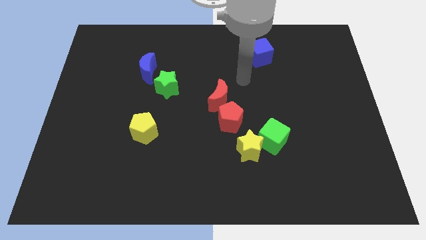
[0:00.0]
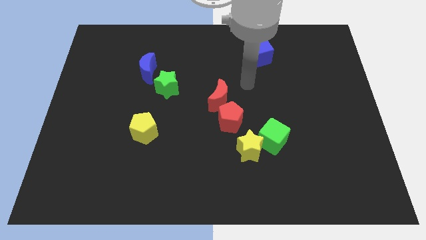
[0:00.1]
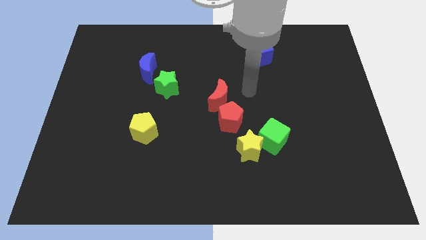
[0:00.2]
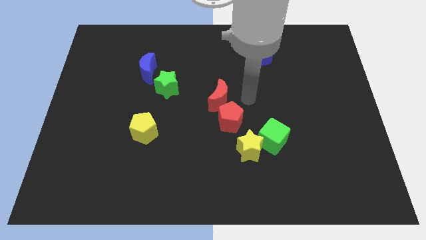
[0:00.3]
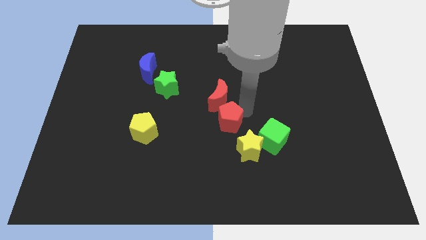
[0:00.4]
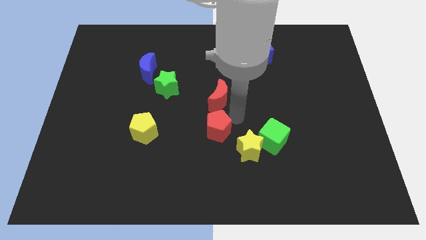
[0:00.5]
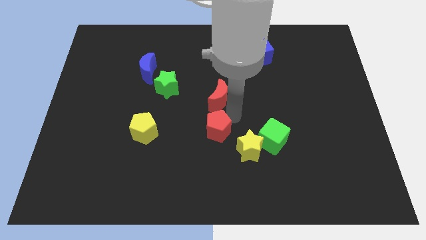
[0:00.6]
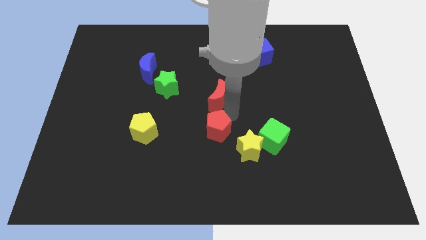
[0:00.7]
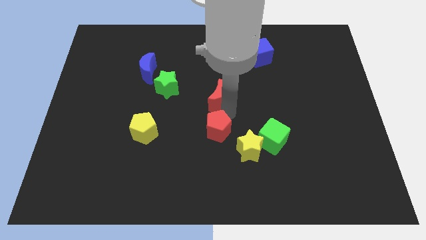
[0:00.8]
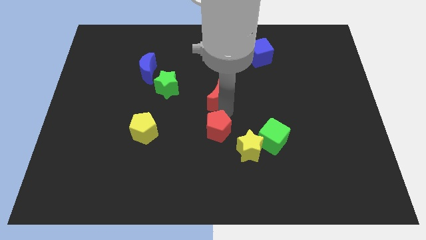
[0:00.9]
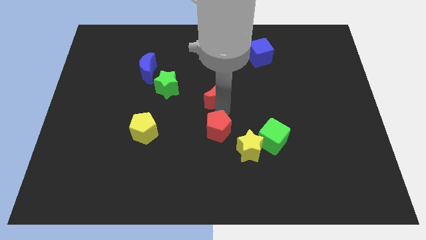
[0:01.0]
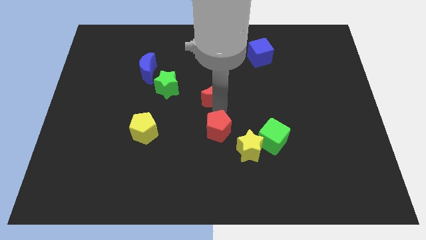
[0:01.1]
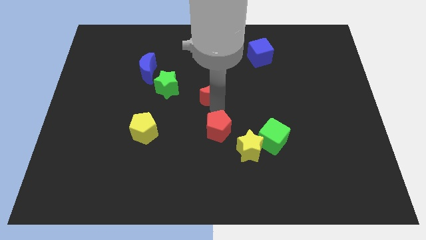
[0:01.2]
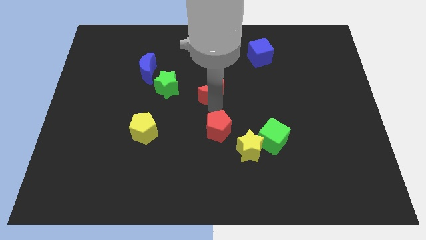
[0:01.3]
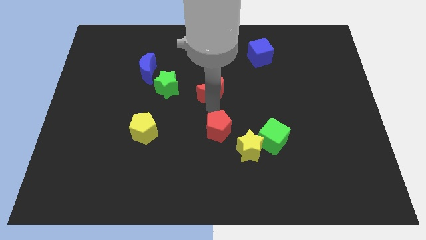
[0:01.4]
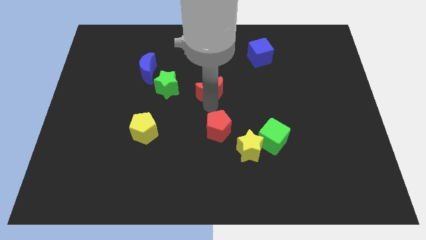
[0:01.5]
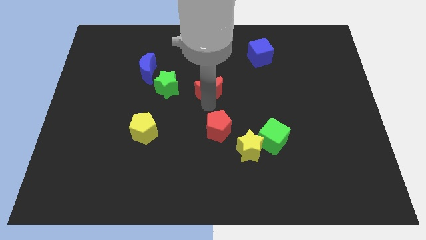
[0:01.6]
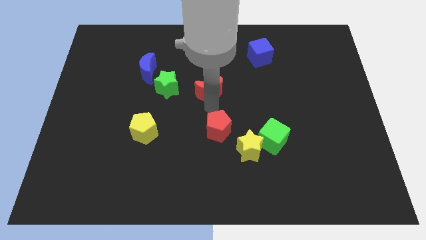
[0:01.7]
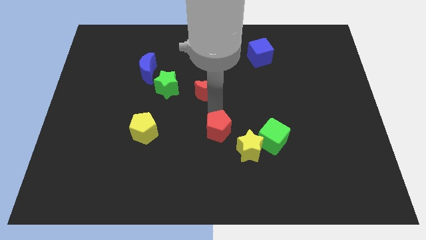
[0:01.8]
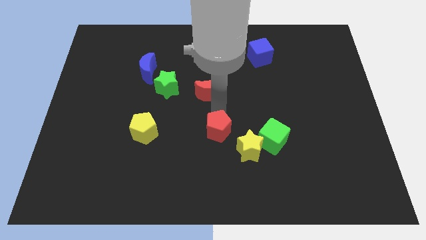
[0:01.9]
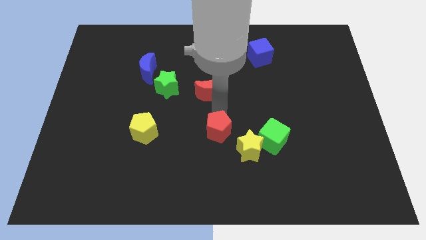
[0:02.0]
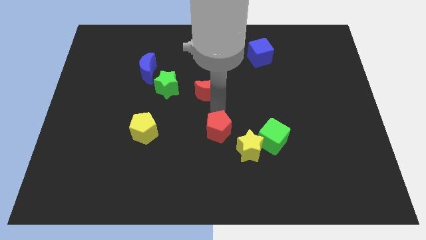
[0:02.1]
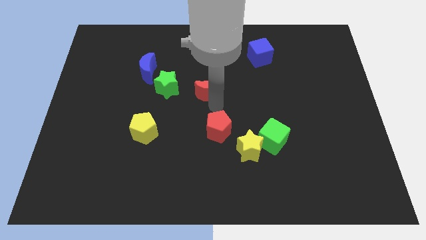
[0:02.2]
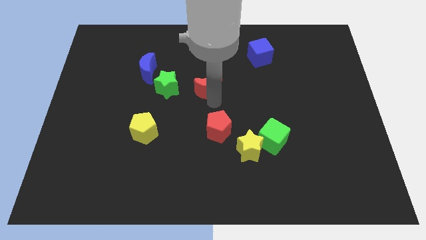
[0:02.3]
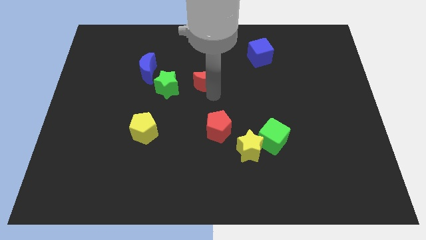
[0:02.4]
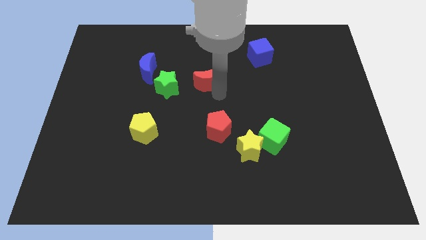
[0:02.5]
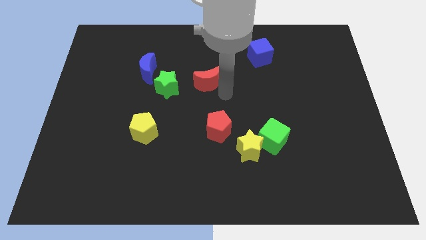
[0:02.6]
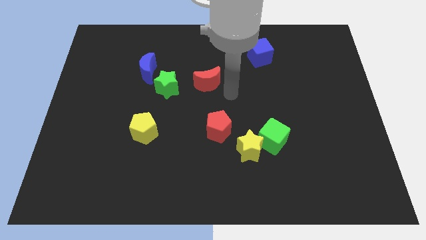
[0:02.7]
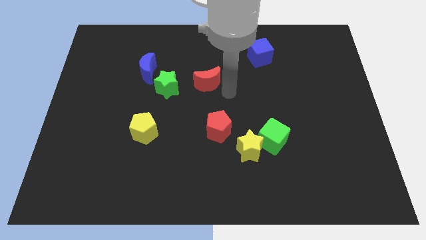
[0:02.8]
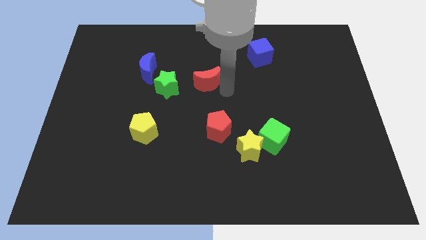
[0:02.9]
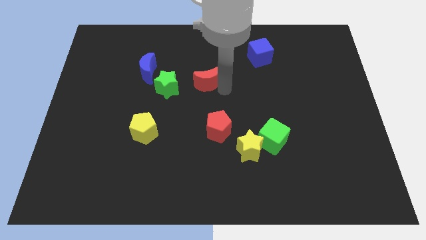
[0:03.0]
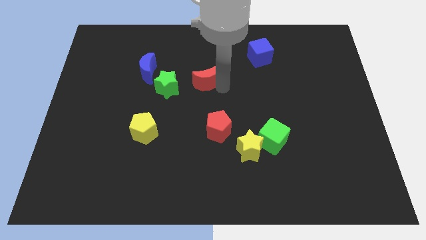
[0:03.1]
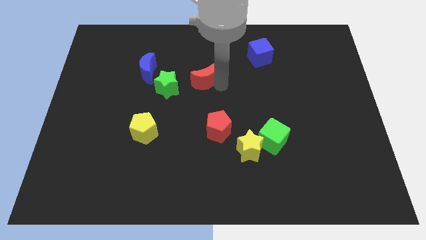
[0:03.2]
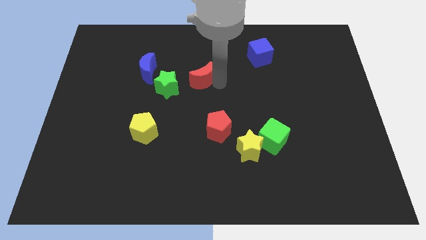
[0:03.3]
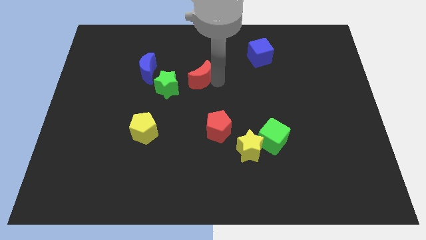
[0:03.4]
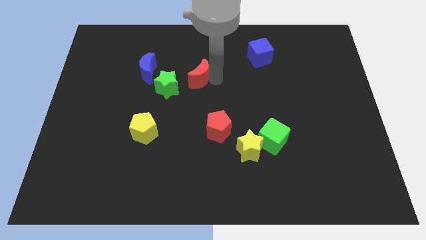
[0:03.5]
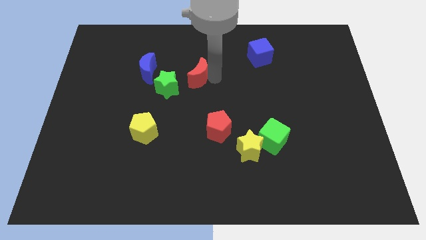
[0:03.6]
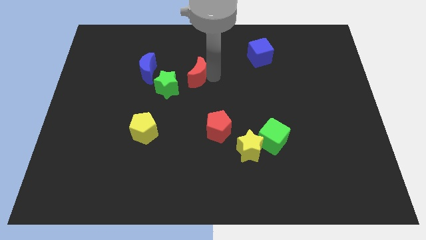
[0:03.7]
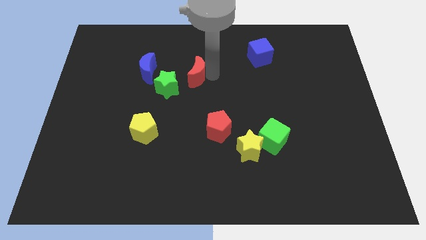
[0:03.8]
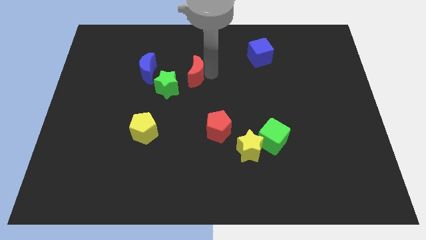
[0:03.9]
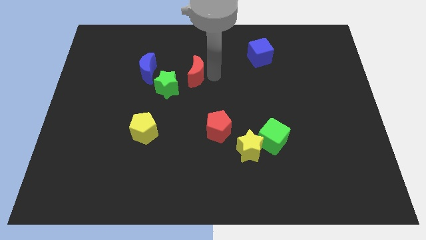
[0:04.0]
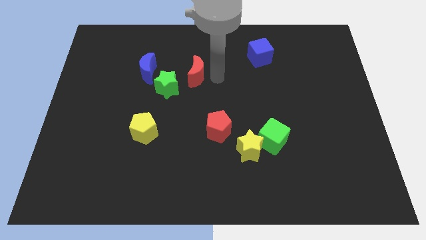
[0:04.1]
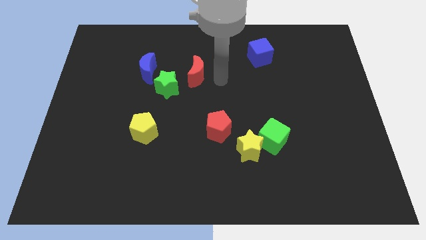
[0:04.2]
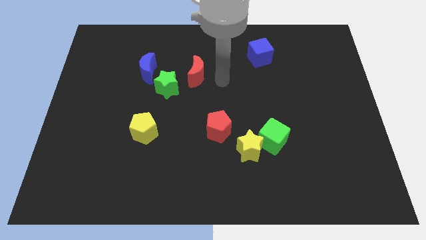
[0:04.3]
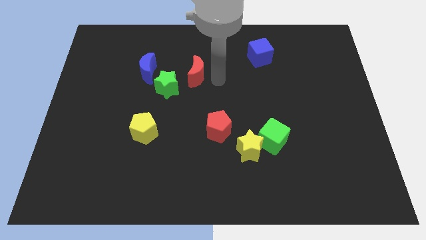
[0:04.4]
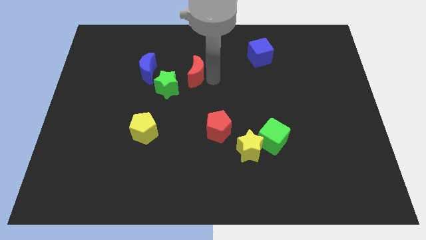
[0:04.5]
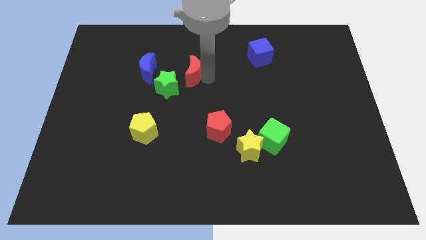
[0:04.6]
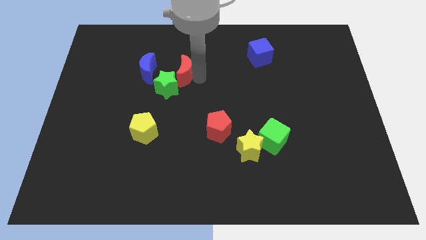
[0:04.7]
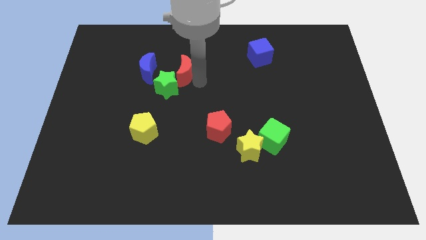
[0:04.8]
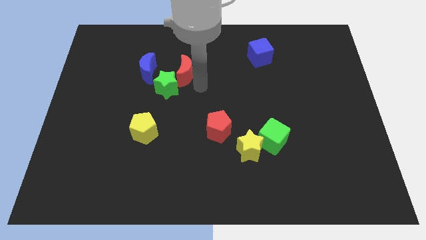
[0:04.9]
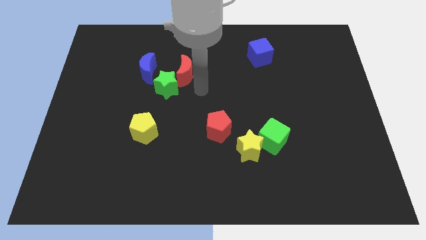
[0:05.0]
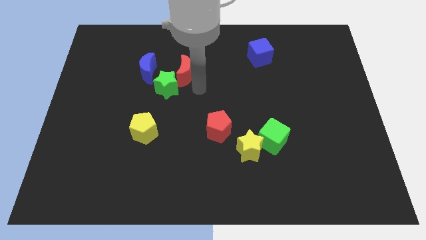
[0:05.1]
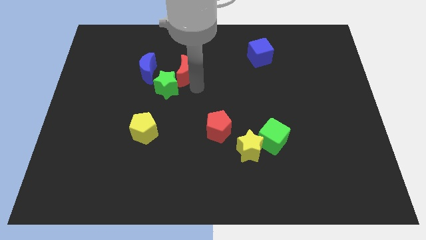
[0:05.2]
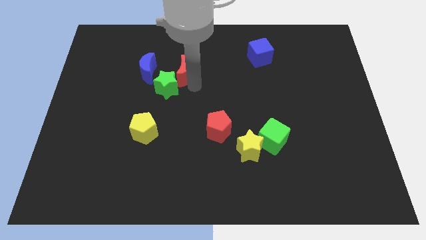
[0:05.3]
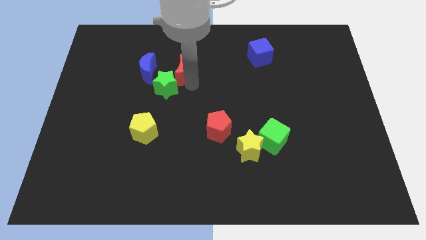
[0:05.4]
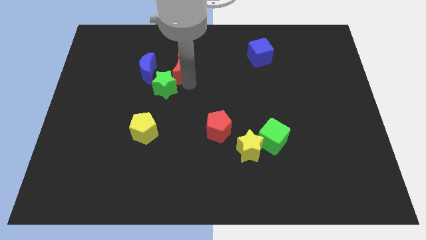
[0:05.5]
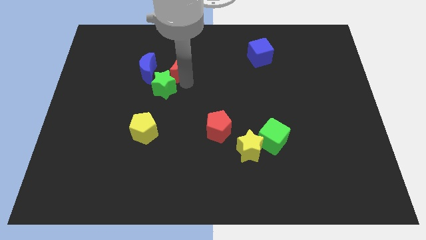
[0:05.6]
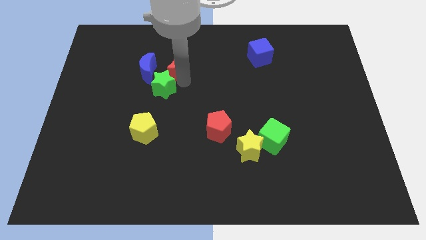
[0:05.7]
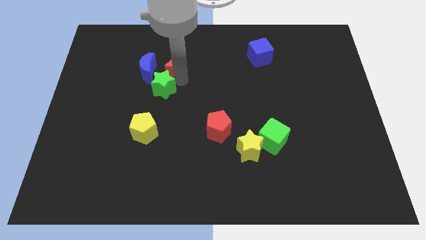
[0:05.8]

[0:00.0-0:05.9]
put the red moon to the top right side of the blue moon

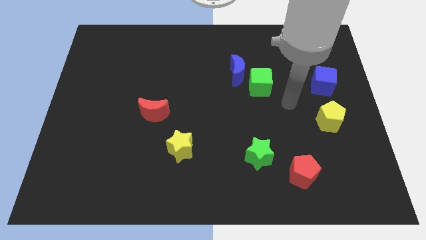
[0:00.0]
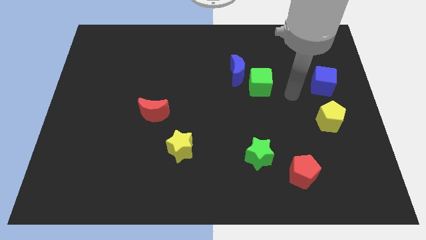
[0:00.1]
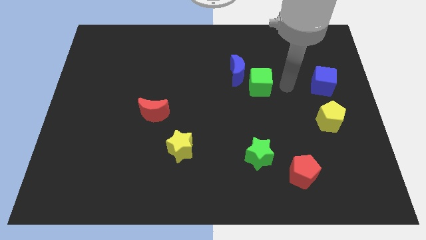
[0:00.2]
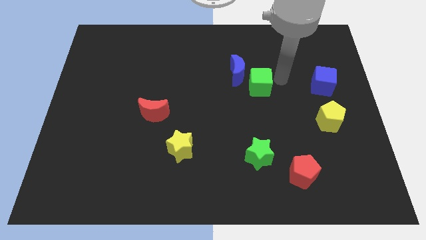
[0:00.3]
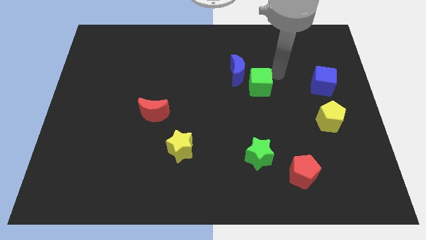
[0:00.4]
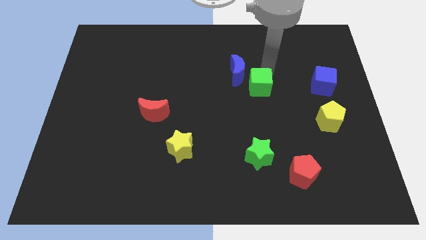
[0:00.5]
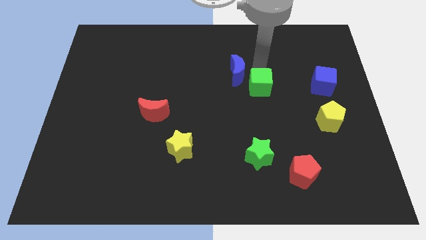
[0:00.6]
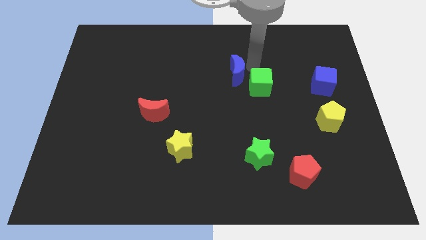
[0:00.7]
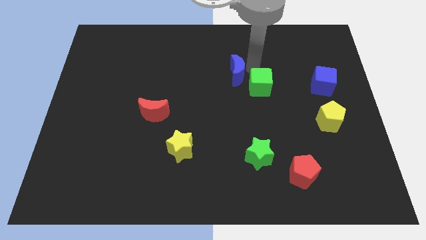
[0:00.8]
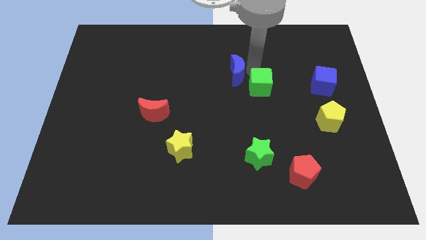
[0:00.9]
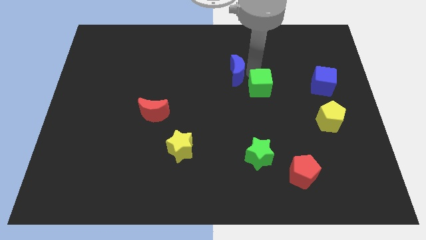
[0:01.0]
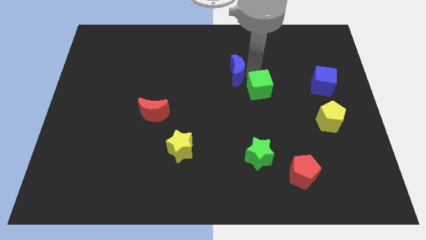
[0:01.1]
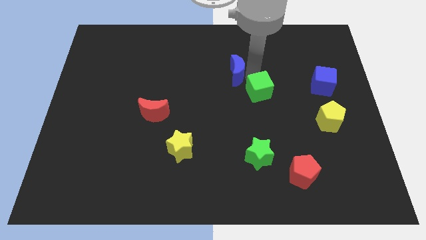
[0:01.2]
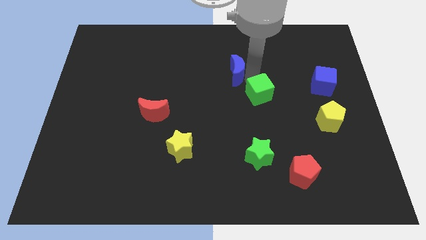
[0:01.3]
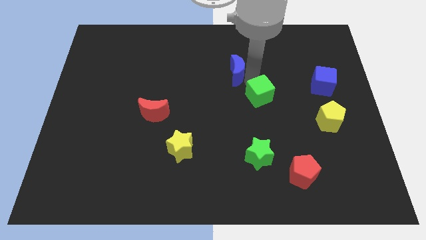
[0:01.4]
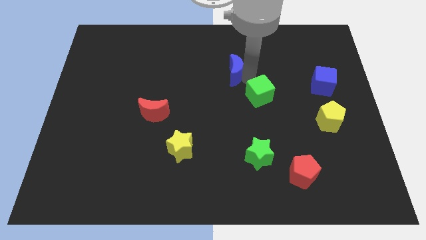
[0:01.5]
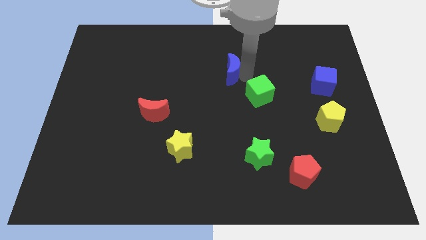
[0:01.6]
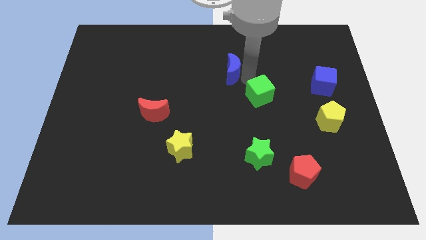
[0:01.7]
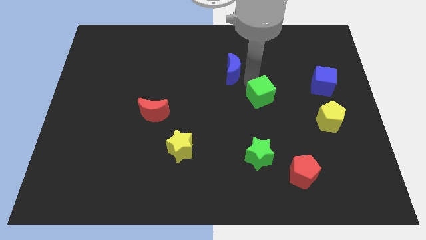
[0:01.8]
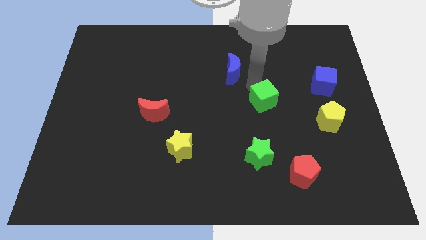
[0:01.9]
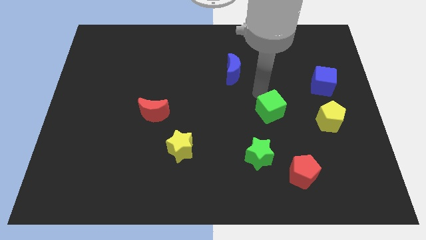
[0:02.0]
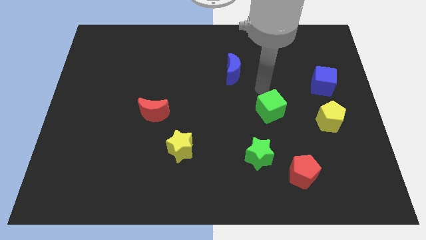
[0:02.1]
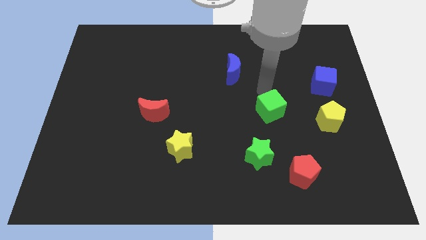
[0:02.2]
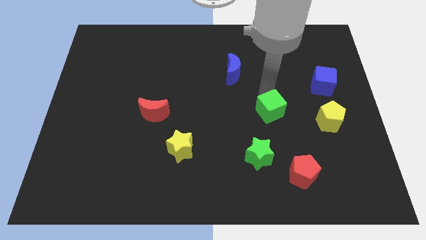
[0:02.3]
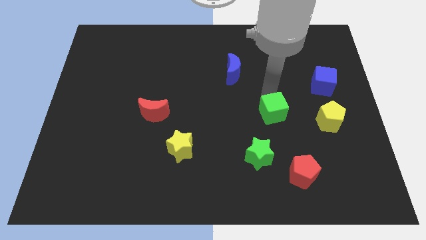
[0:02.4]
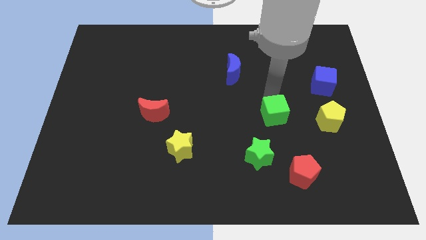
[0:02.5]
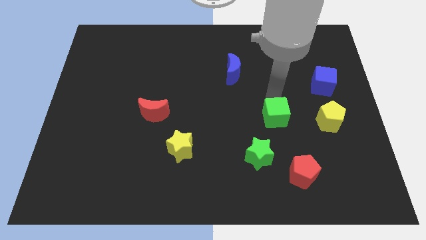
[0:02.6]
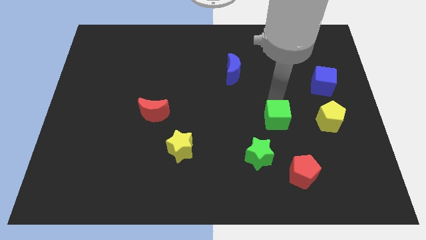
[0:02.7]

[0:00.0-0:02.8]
put the green cube diagonally up and to the right of the green star
